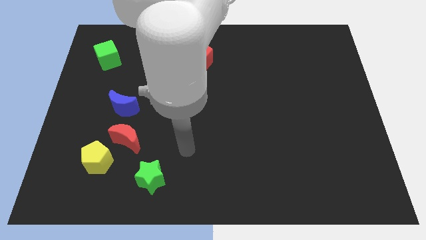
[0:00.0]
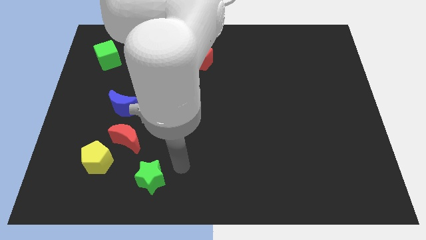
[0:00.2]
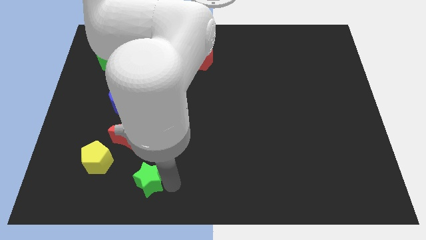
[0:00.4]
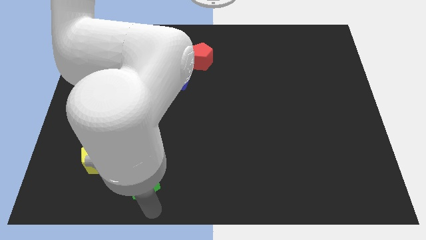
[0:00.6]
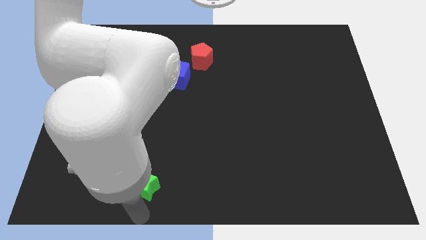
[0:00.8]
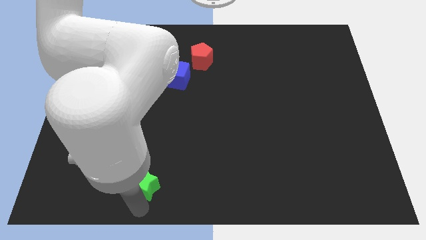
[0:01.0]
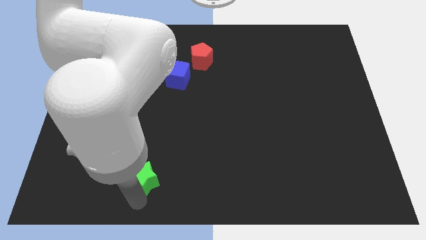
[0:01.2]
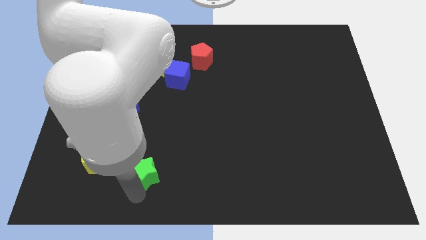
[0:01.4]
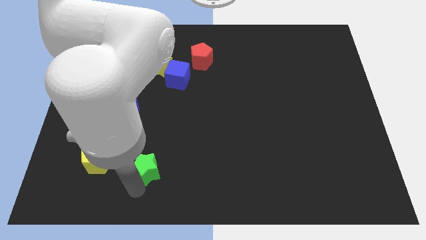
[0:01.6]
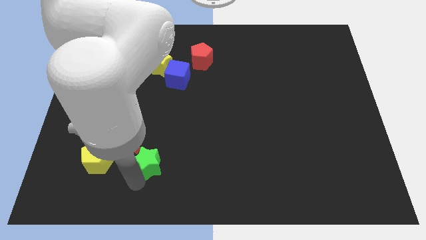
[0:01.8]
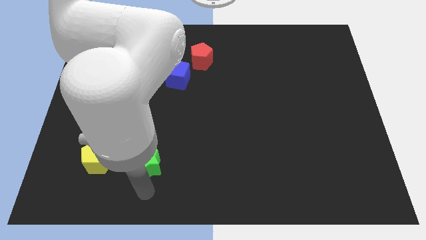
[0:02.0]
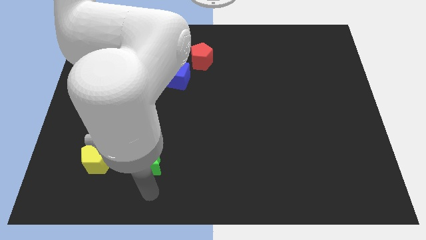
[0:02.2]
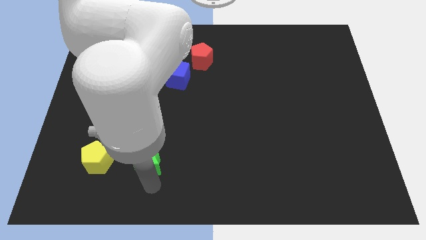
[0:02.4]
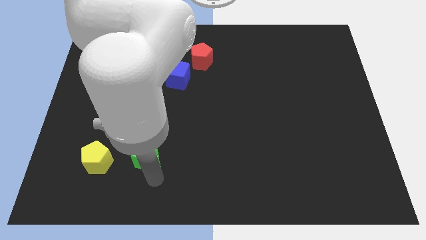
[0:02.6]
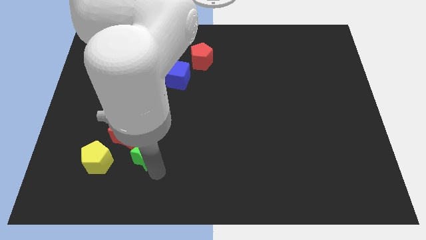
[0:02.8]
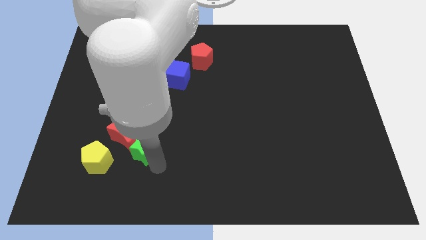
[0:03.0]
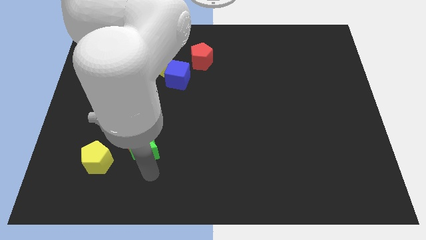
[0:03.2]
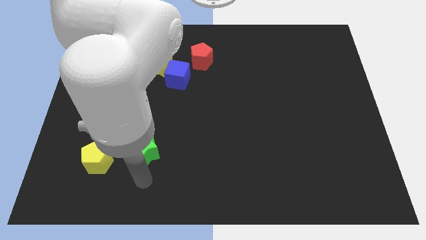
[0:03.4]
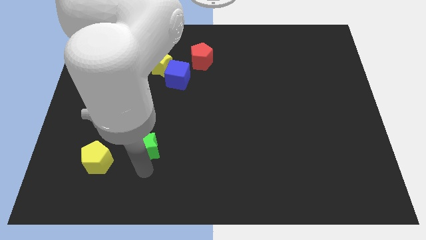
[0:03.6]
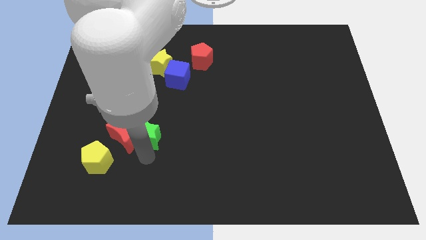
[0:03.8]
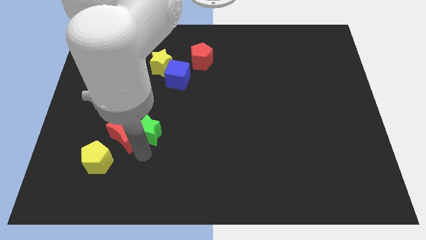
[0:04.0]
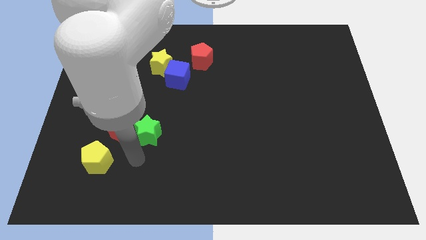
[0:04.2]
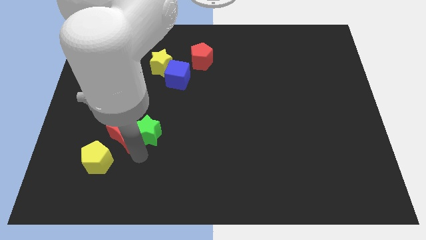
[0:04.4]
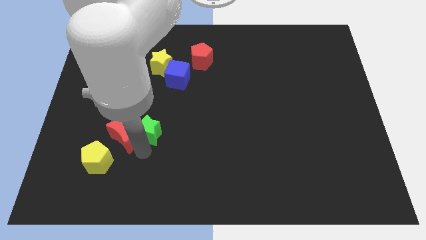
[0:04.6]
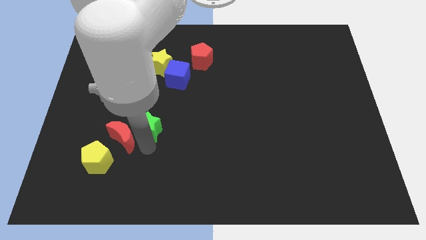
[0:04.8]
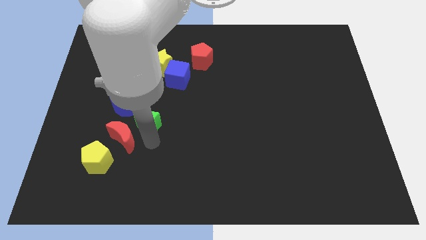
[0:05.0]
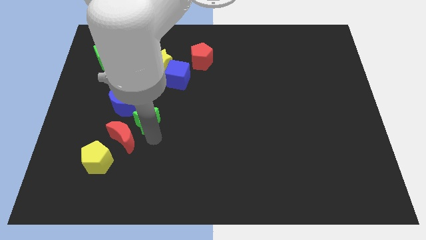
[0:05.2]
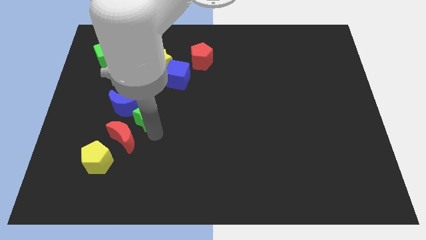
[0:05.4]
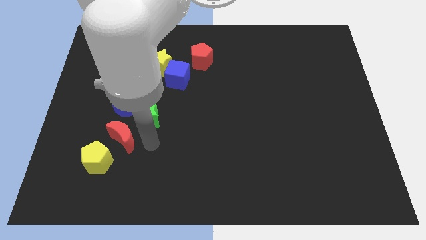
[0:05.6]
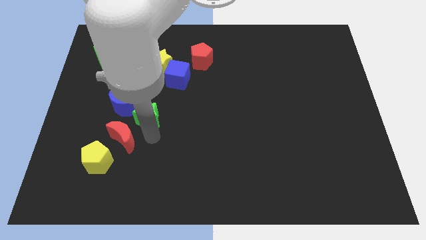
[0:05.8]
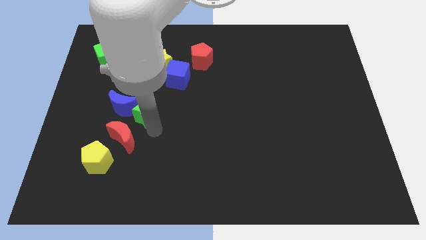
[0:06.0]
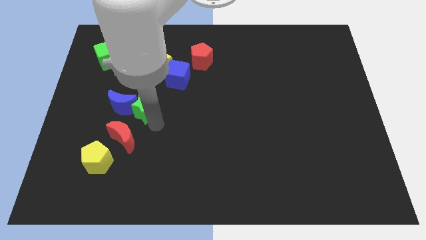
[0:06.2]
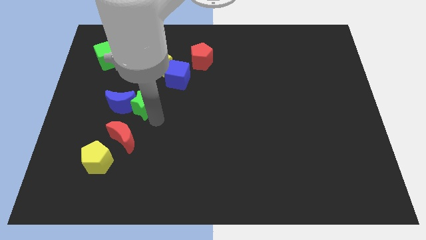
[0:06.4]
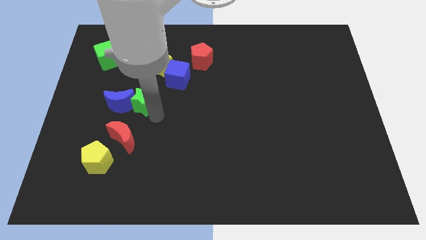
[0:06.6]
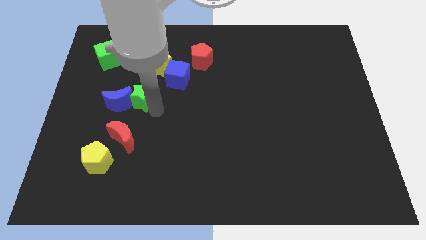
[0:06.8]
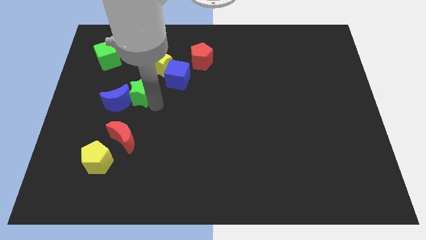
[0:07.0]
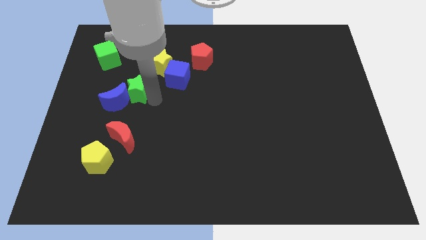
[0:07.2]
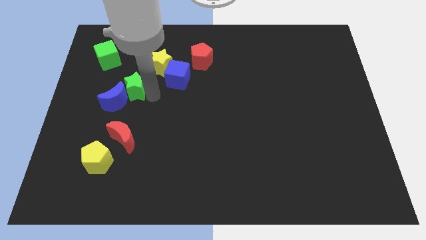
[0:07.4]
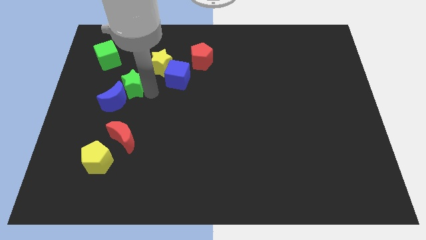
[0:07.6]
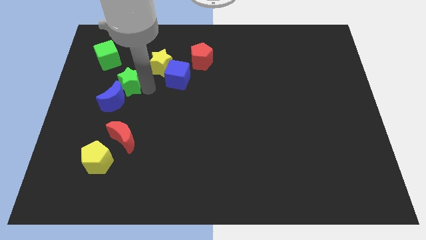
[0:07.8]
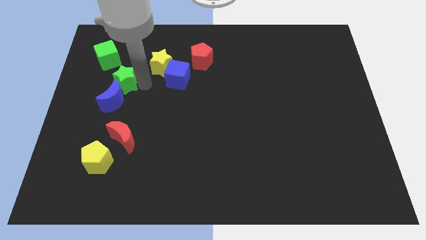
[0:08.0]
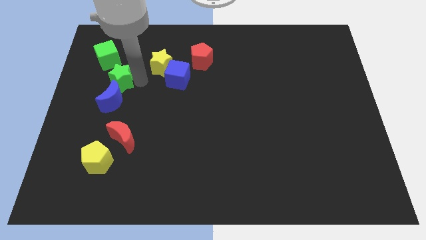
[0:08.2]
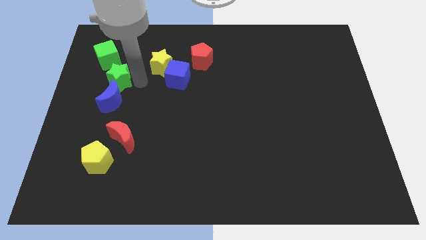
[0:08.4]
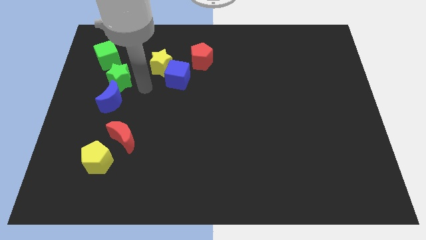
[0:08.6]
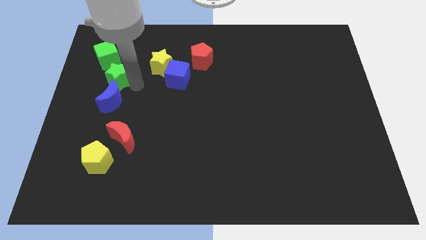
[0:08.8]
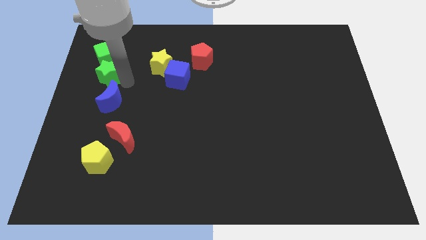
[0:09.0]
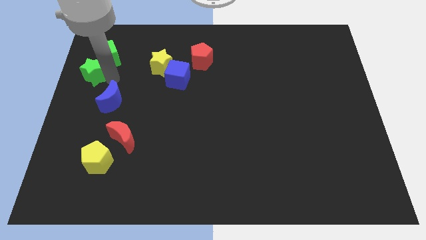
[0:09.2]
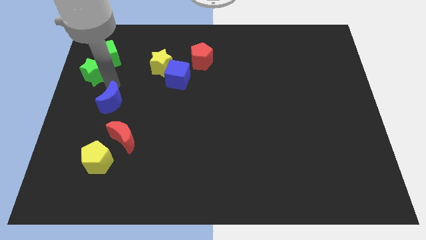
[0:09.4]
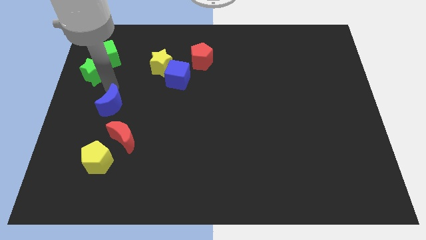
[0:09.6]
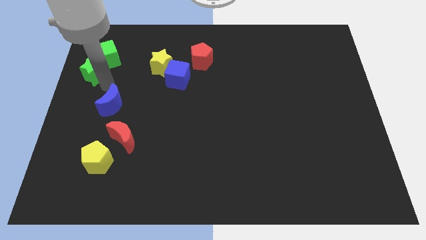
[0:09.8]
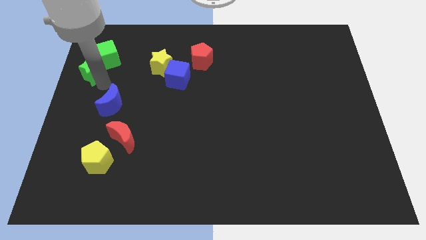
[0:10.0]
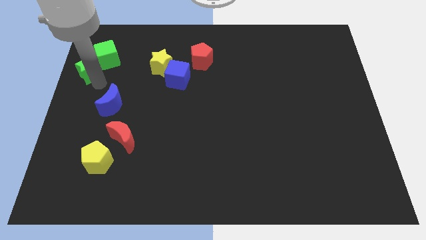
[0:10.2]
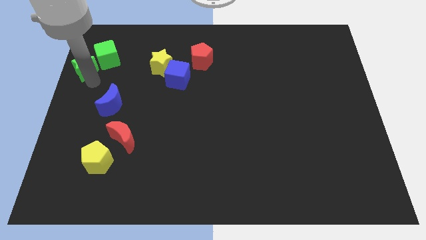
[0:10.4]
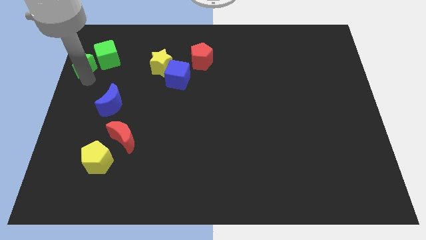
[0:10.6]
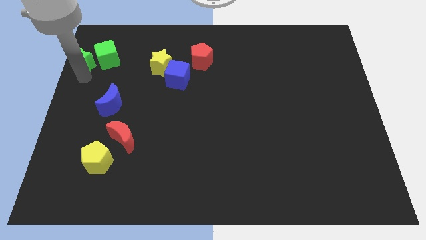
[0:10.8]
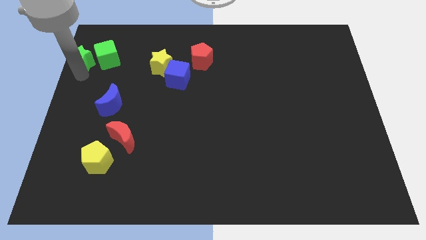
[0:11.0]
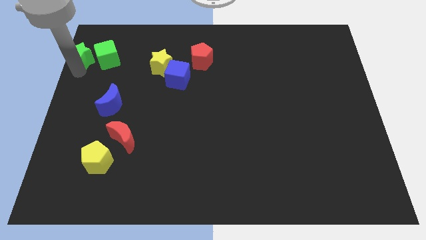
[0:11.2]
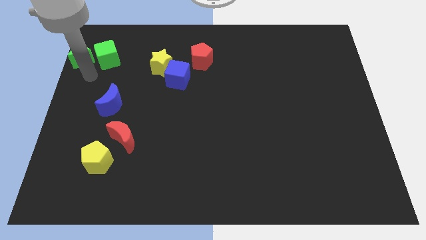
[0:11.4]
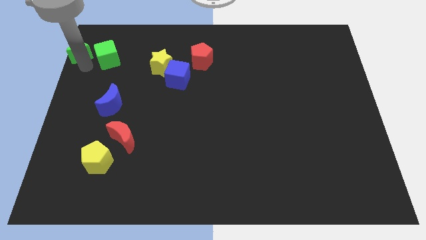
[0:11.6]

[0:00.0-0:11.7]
move the green star to the upper left corner

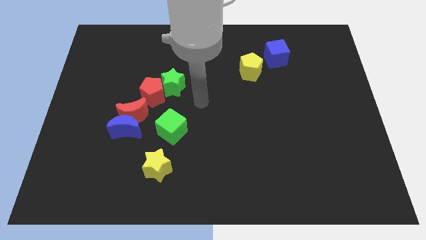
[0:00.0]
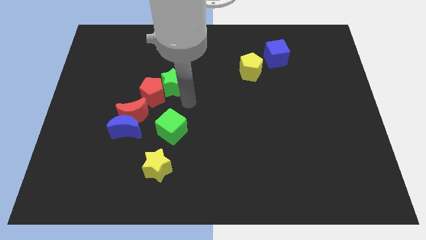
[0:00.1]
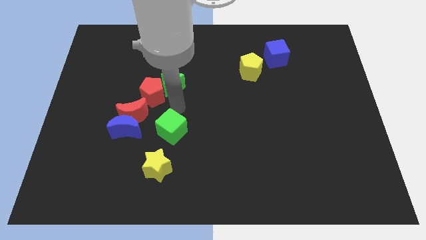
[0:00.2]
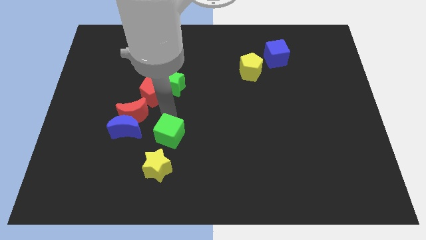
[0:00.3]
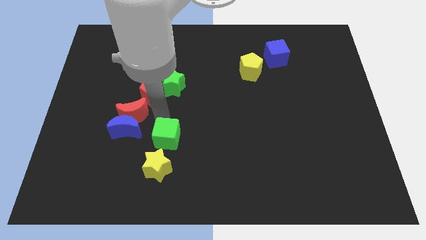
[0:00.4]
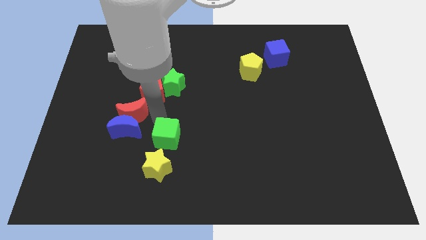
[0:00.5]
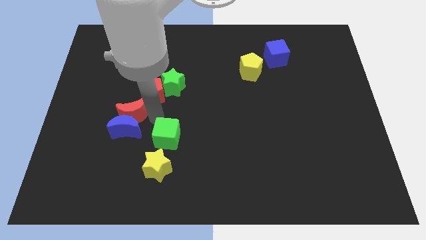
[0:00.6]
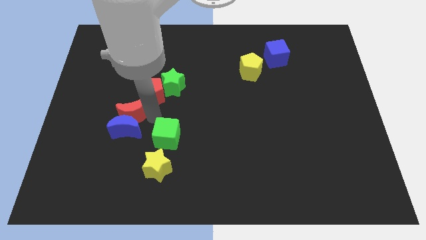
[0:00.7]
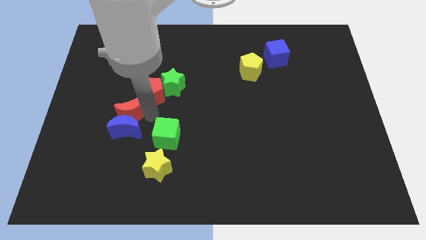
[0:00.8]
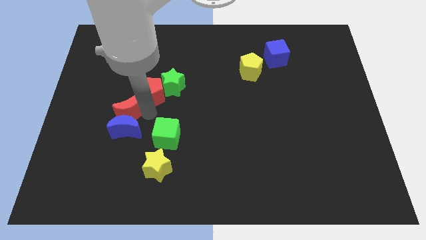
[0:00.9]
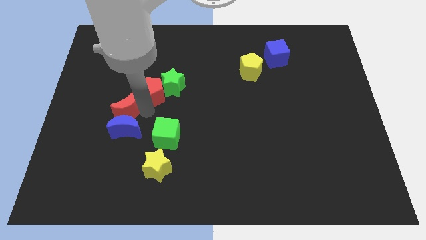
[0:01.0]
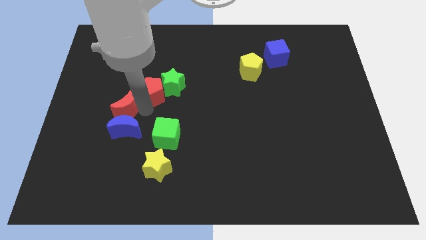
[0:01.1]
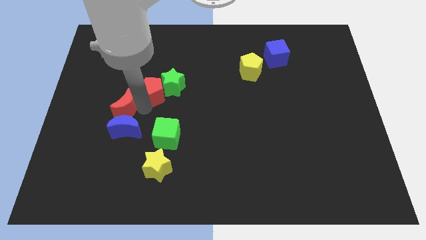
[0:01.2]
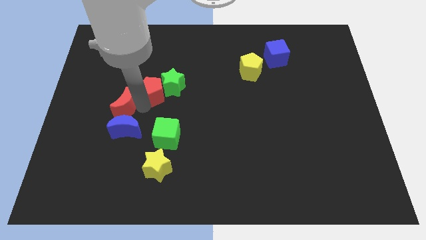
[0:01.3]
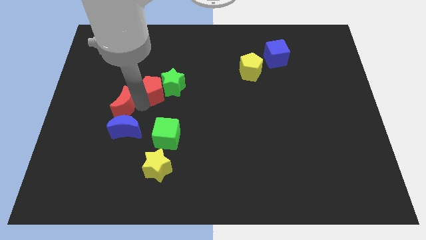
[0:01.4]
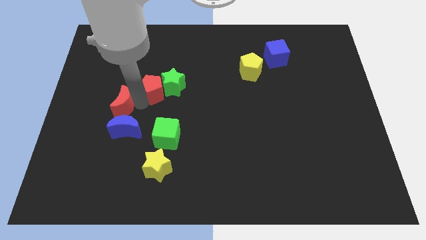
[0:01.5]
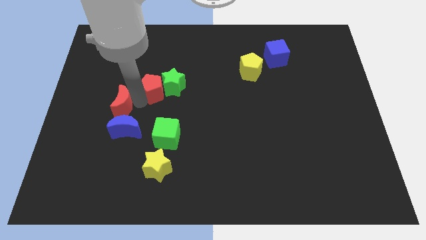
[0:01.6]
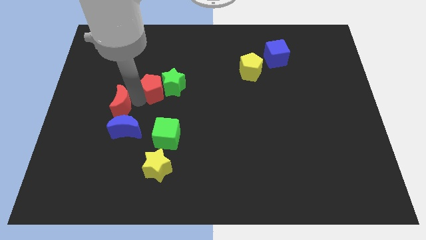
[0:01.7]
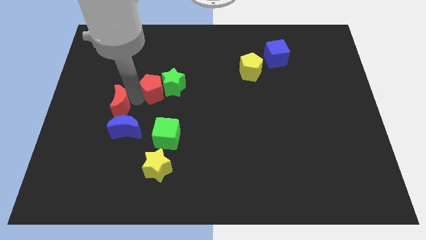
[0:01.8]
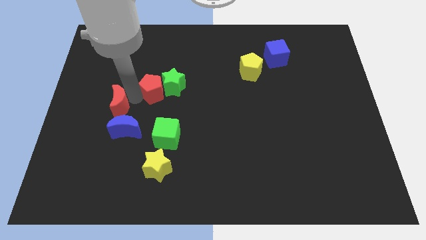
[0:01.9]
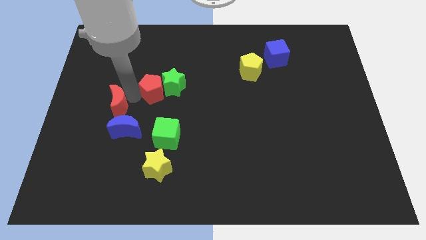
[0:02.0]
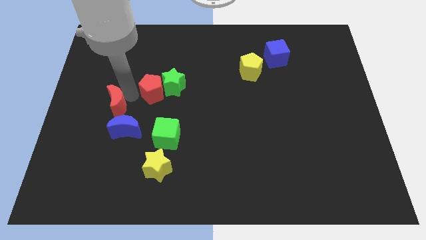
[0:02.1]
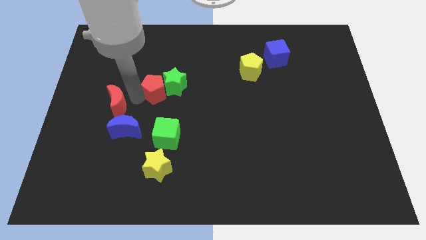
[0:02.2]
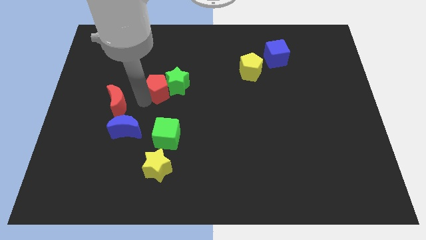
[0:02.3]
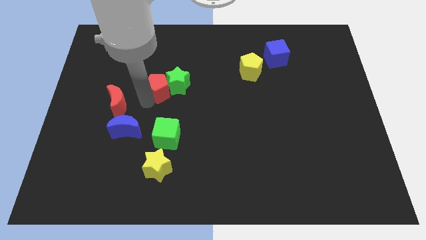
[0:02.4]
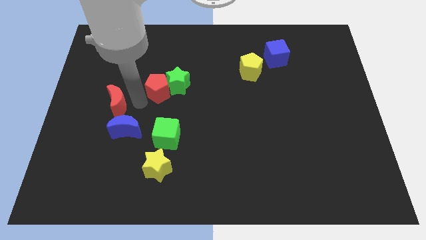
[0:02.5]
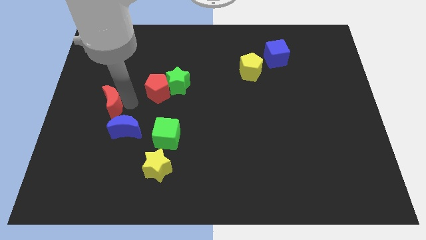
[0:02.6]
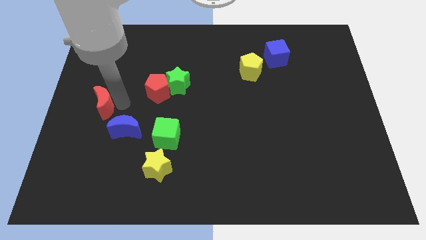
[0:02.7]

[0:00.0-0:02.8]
move the red moon to the left side of the board
